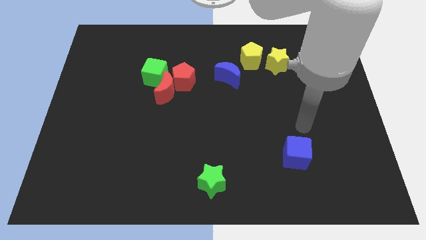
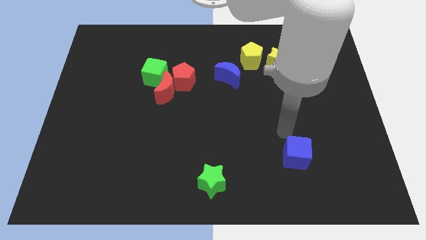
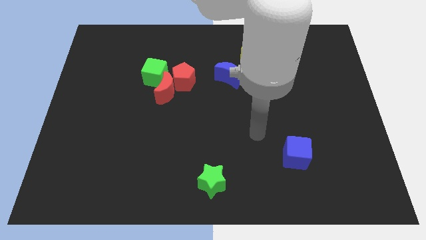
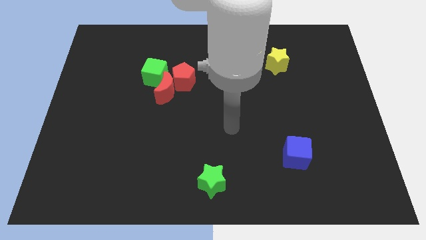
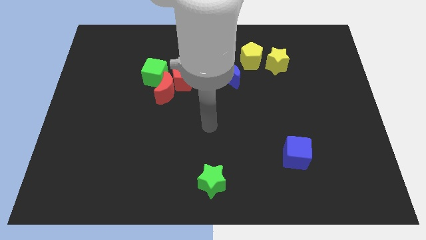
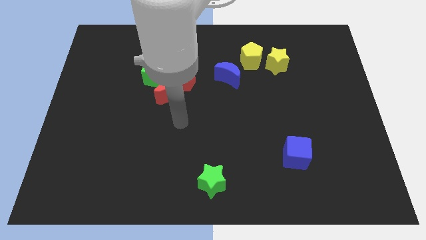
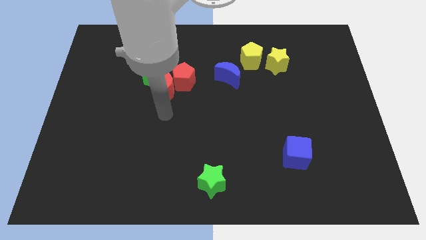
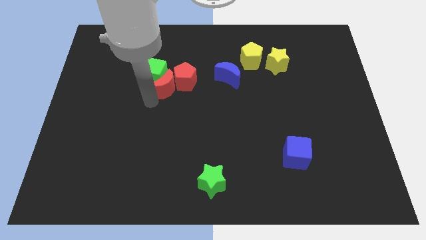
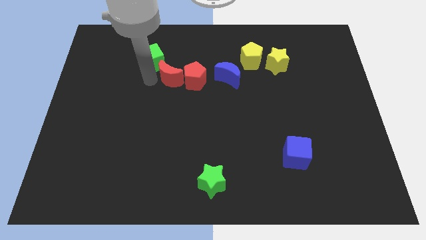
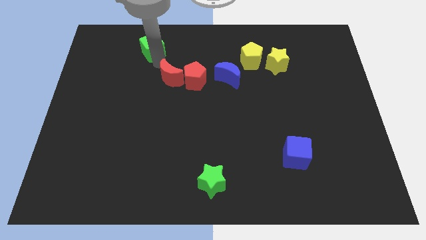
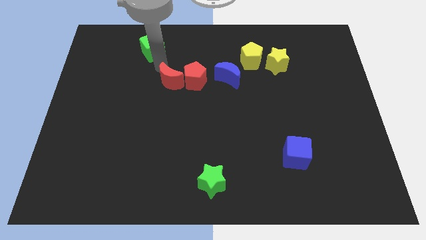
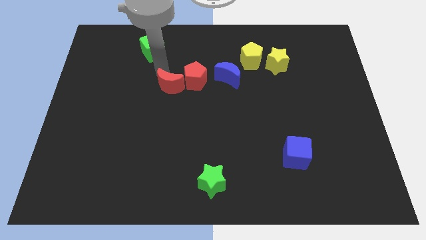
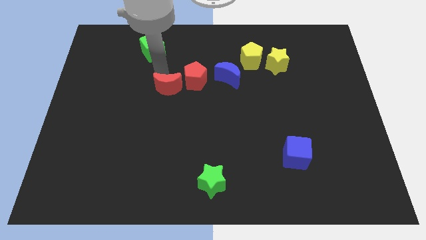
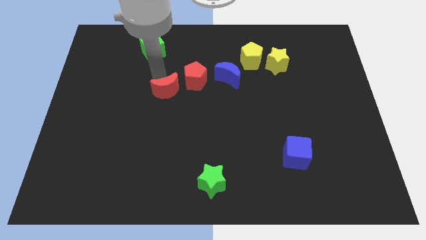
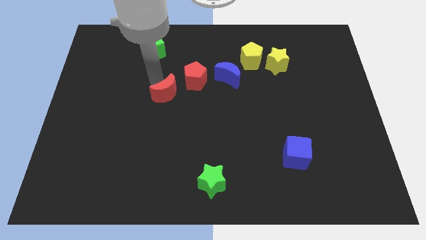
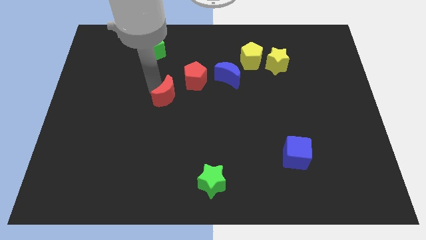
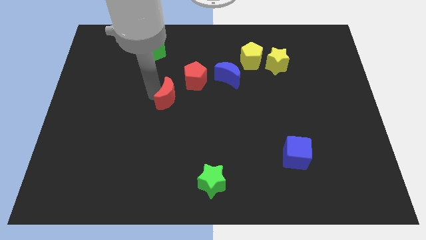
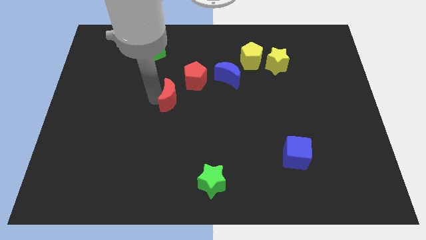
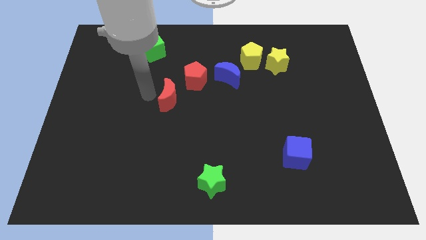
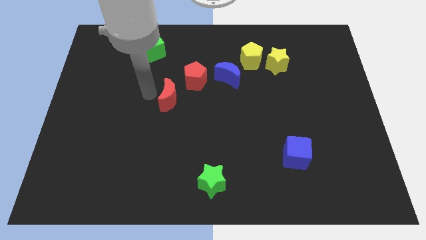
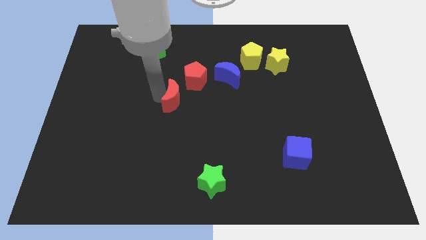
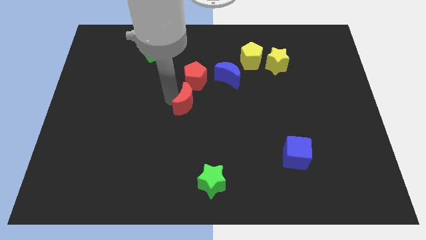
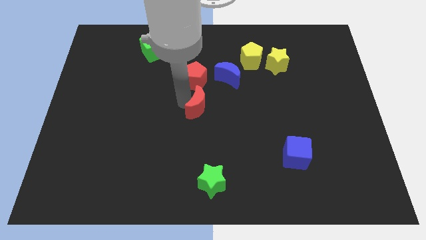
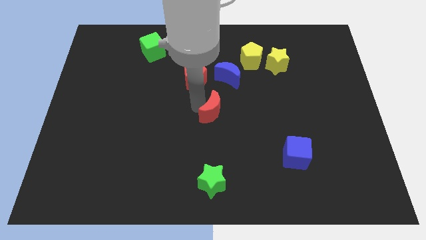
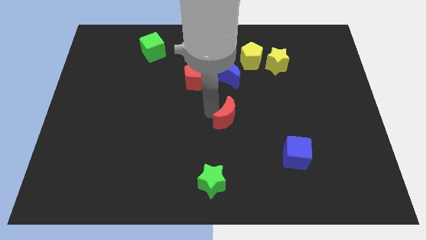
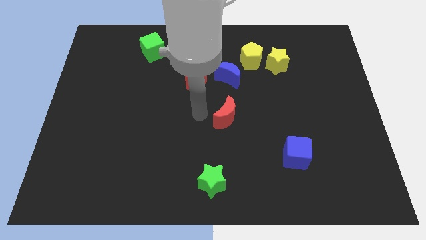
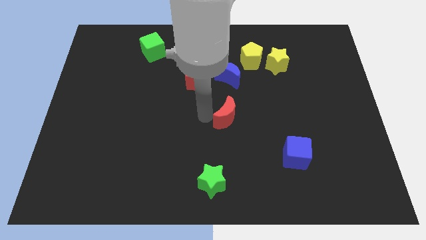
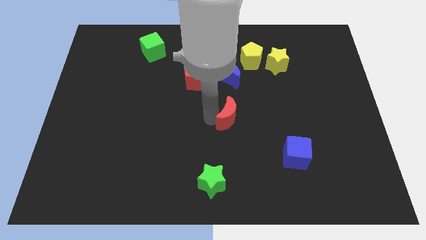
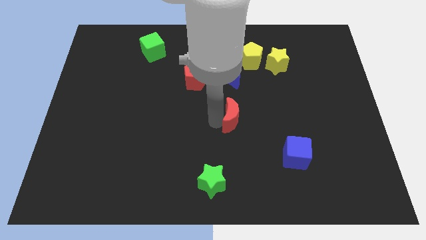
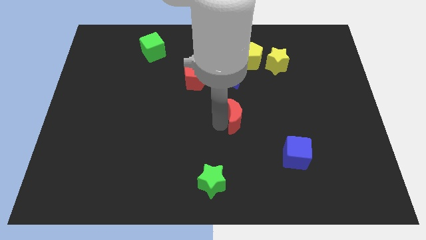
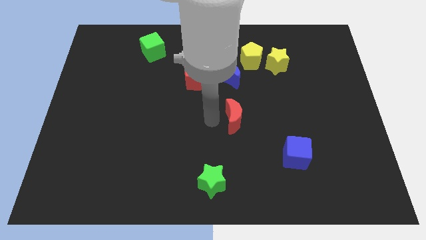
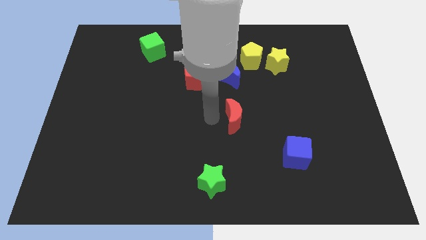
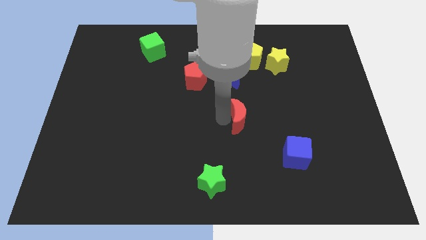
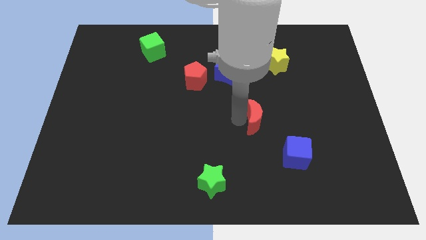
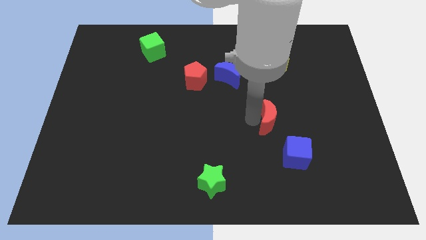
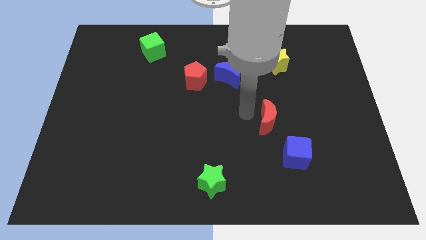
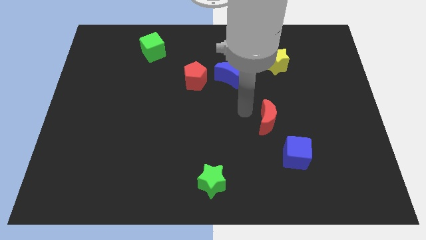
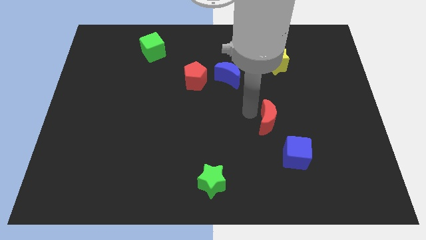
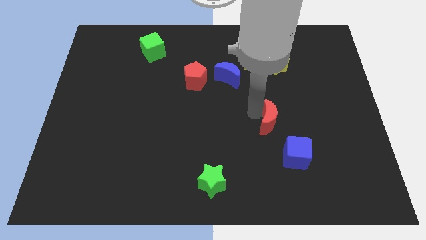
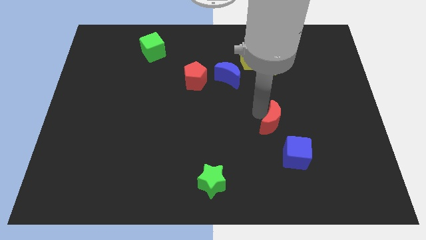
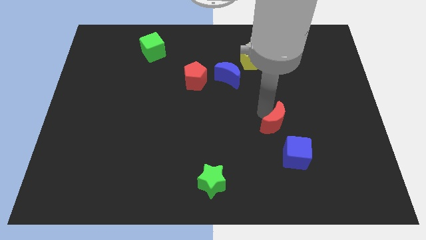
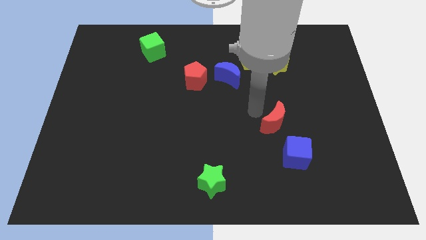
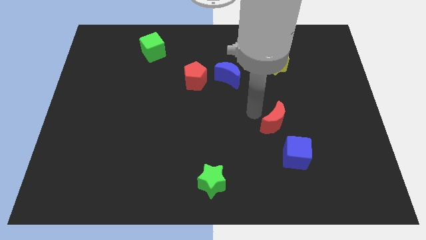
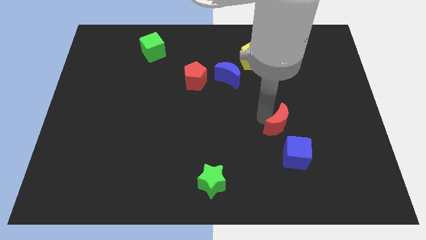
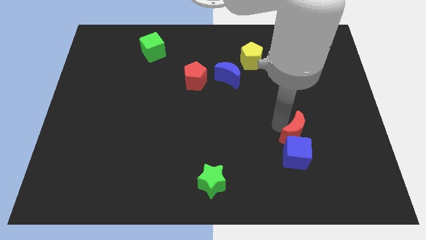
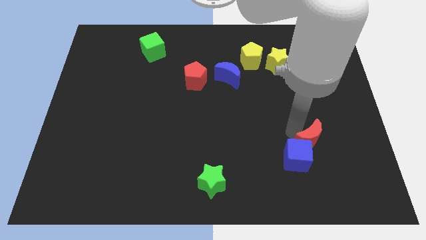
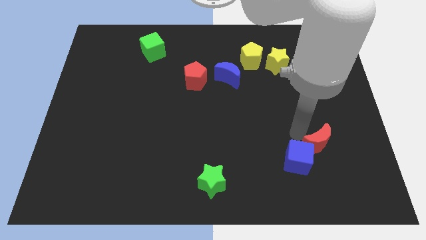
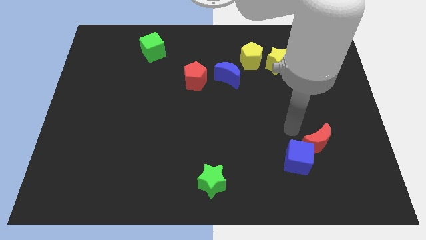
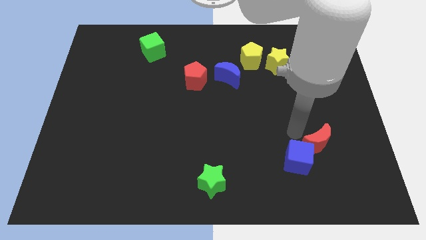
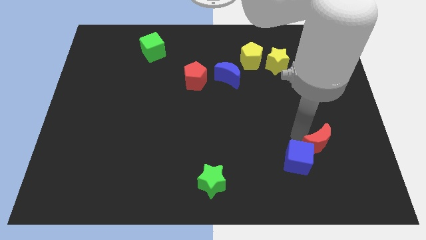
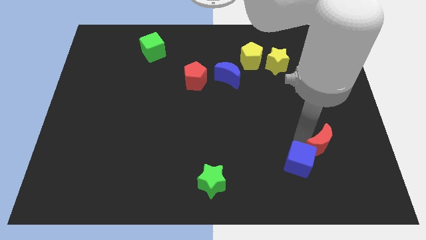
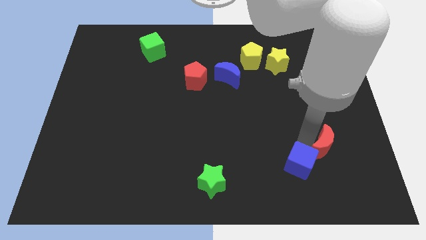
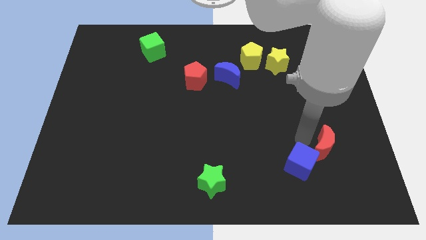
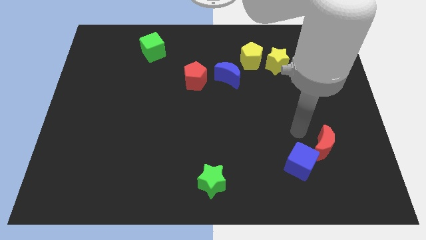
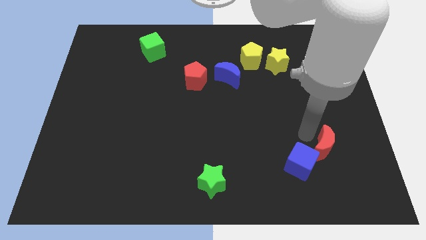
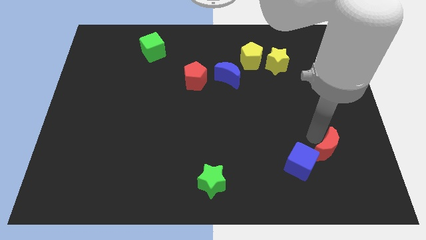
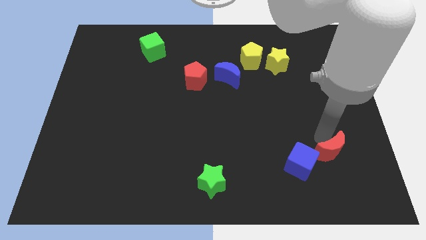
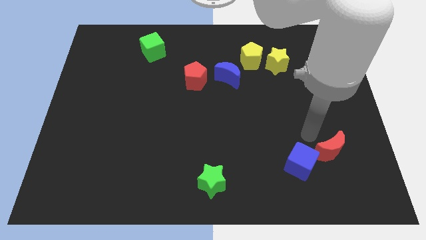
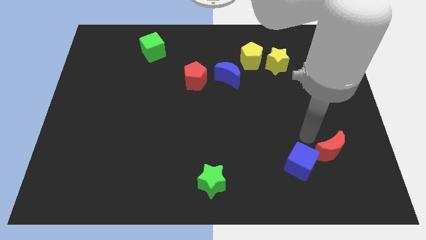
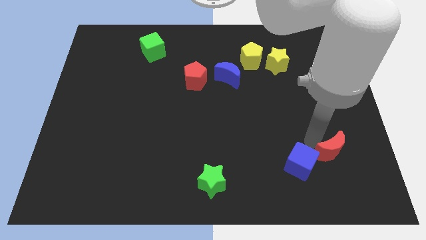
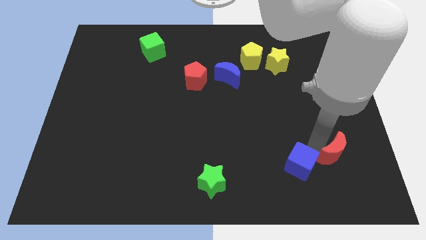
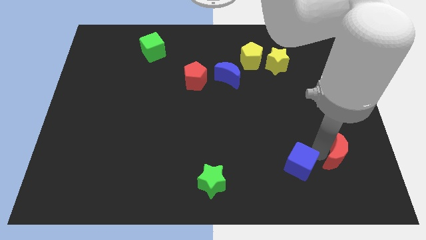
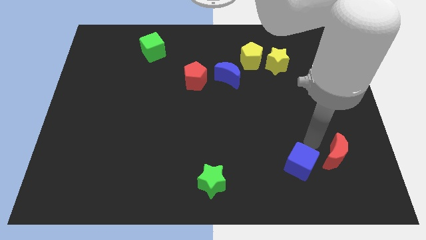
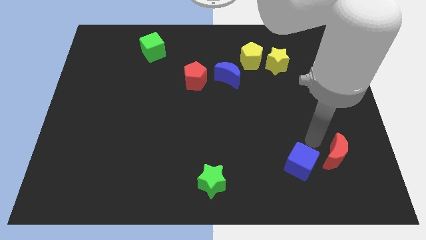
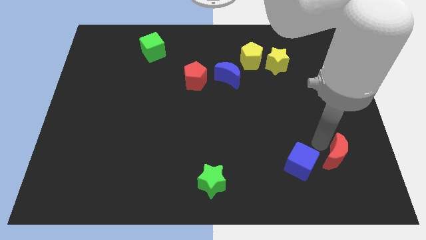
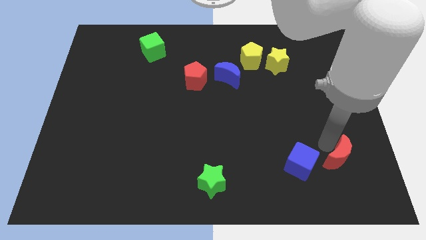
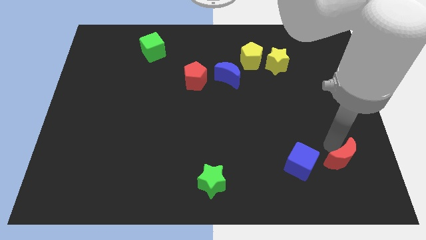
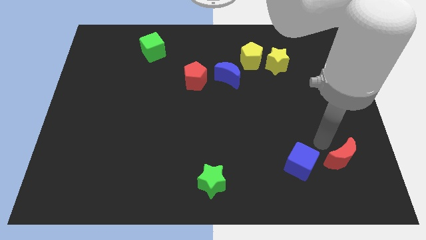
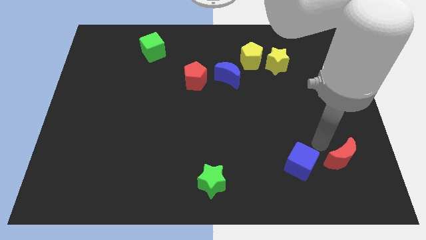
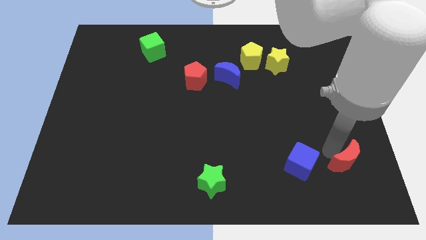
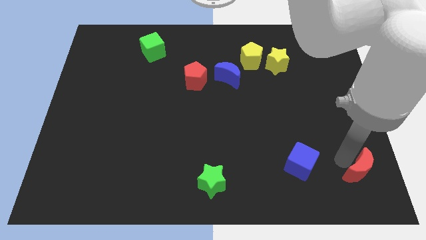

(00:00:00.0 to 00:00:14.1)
slide the red moon to the bottom right
